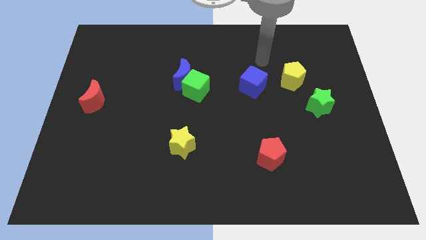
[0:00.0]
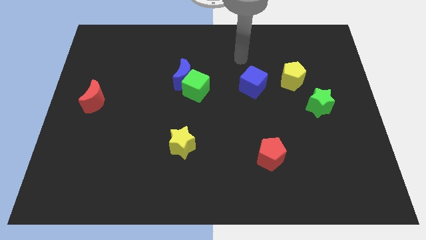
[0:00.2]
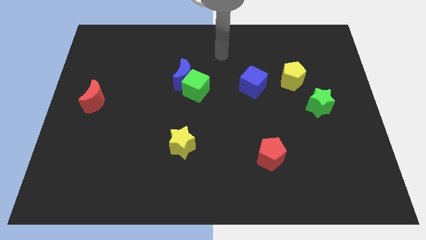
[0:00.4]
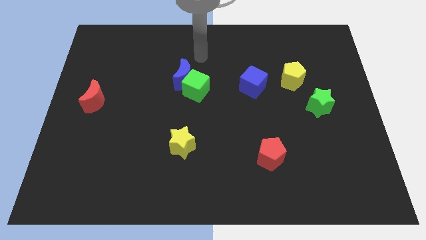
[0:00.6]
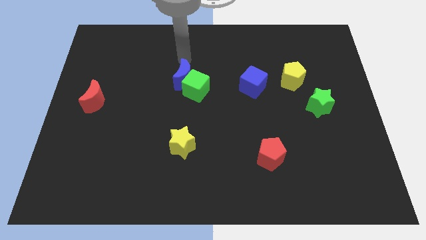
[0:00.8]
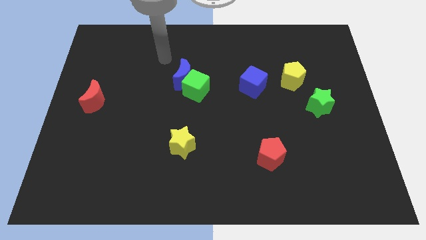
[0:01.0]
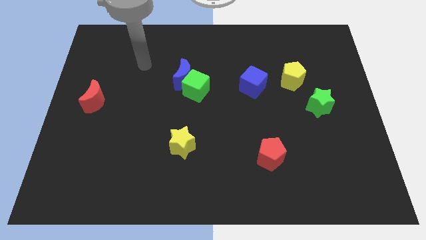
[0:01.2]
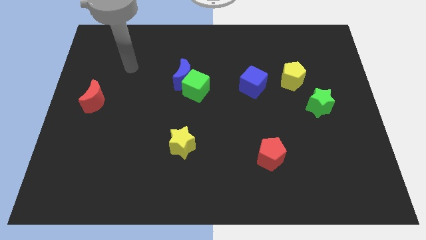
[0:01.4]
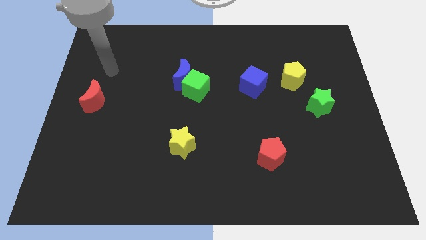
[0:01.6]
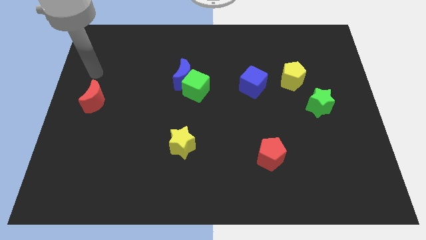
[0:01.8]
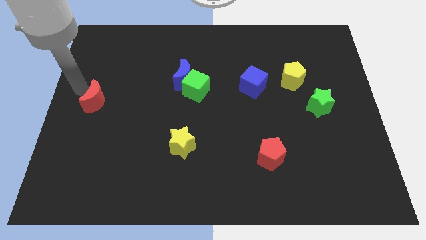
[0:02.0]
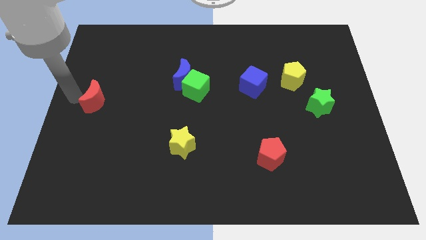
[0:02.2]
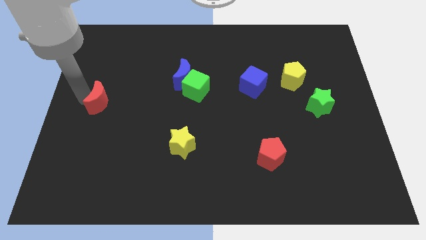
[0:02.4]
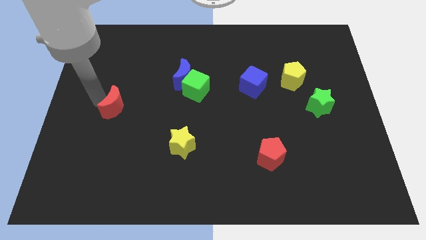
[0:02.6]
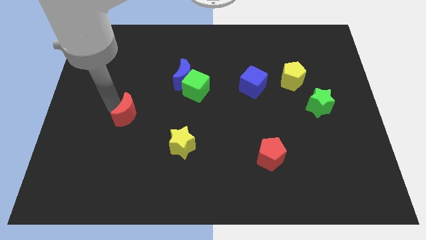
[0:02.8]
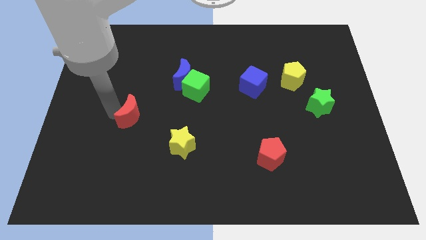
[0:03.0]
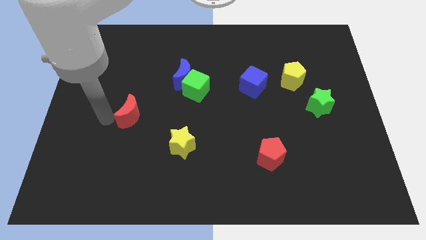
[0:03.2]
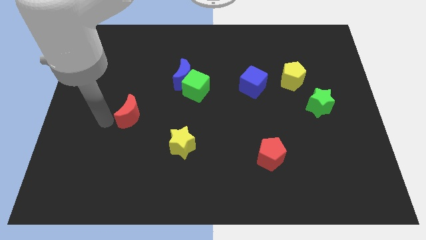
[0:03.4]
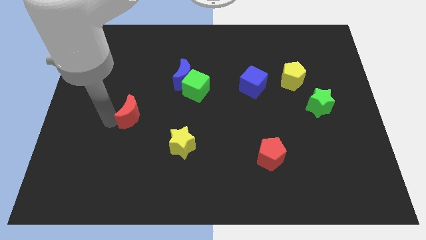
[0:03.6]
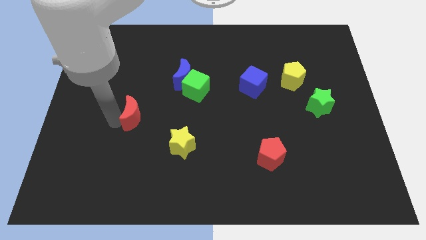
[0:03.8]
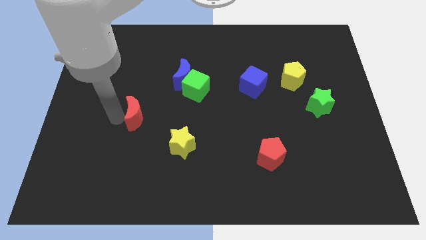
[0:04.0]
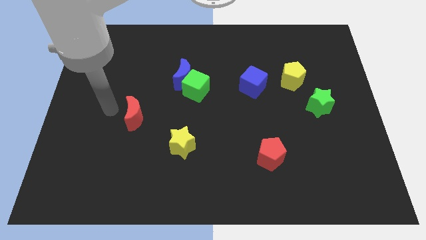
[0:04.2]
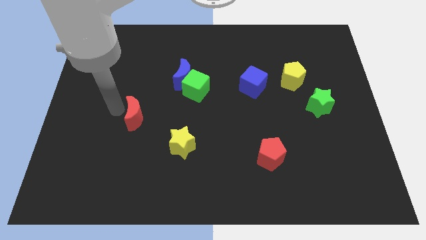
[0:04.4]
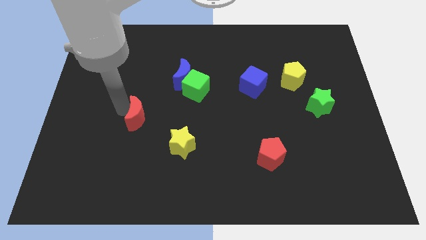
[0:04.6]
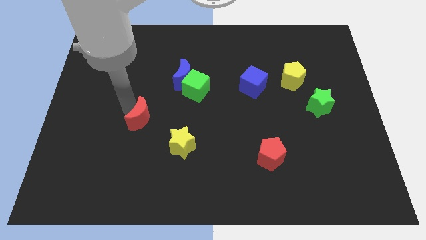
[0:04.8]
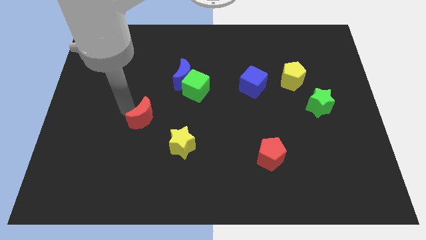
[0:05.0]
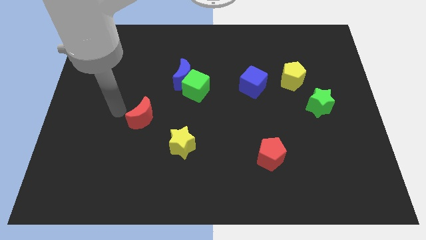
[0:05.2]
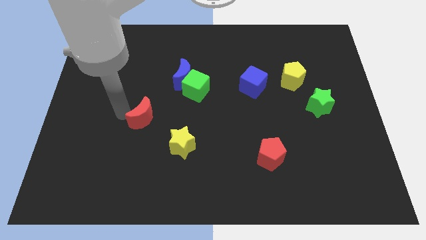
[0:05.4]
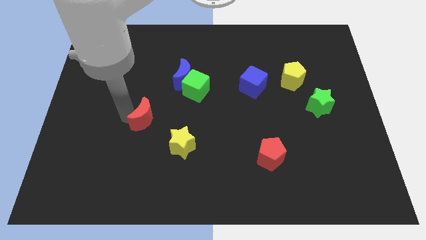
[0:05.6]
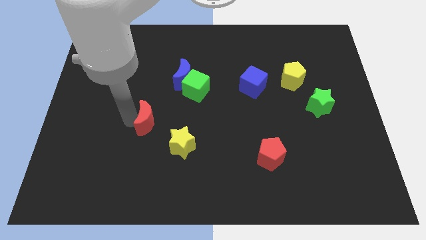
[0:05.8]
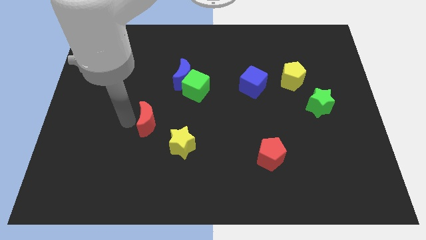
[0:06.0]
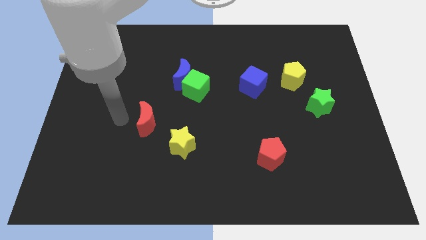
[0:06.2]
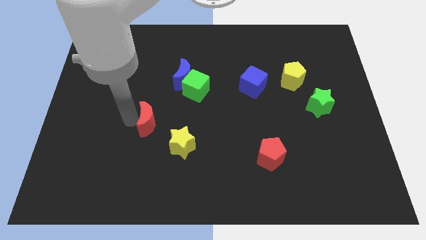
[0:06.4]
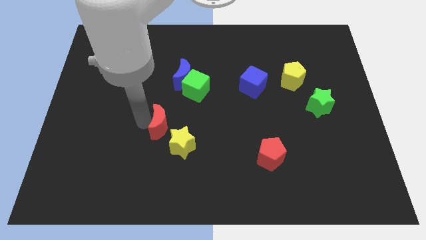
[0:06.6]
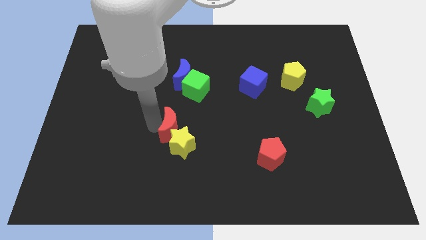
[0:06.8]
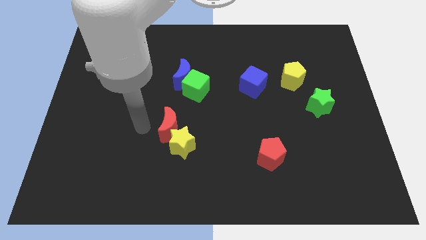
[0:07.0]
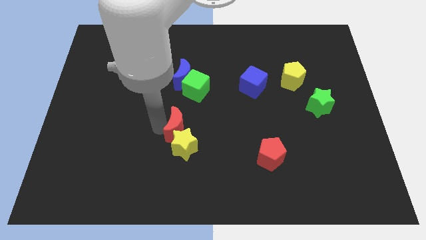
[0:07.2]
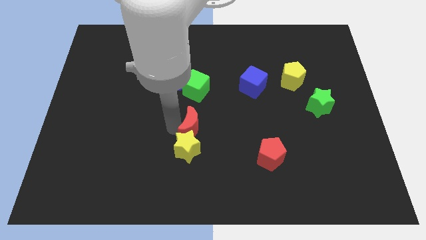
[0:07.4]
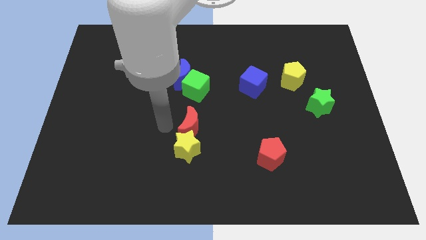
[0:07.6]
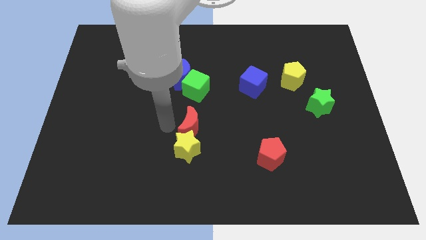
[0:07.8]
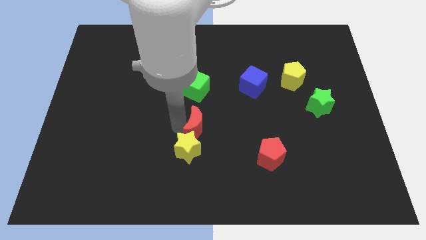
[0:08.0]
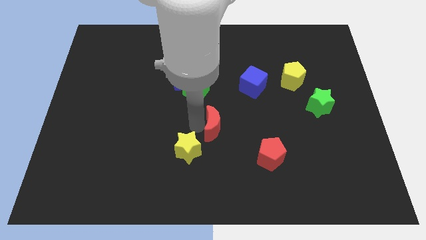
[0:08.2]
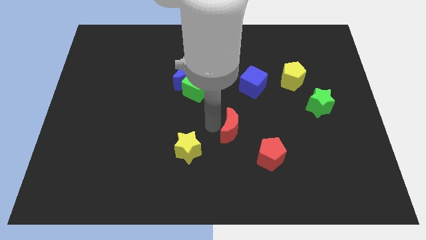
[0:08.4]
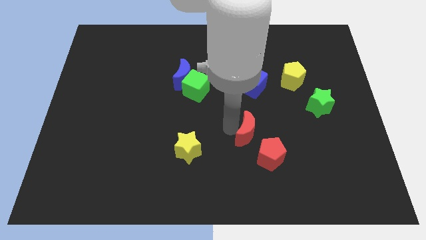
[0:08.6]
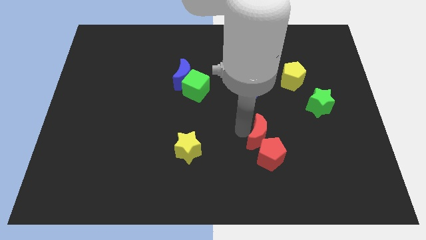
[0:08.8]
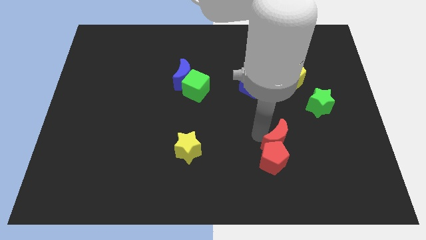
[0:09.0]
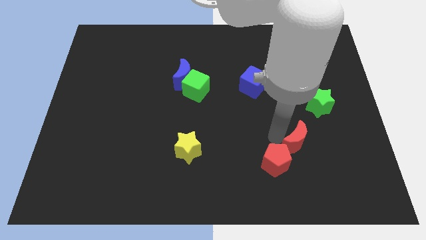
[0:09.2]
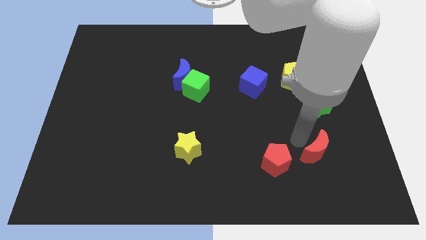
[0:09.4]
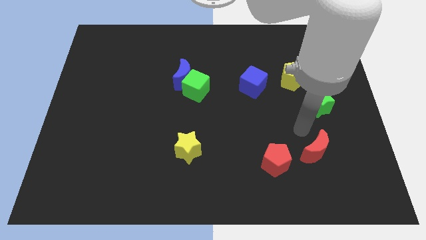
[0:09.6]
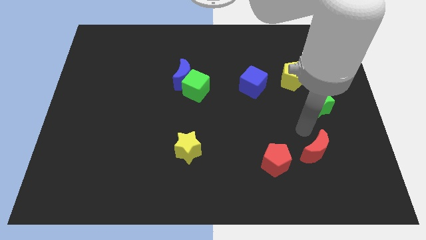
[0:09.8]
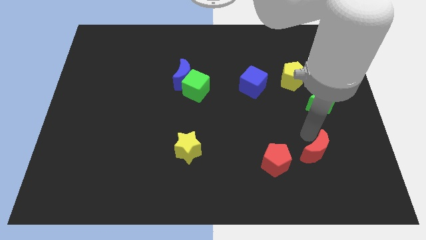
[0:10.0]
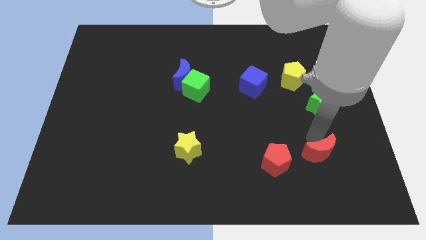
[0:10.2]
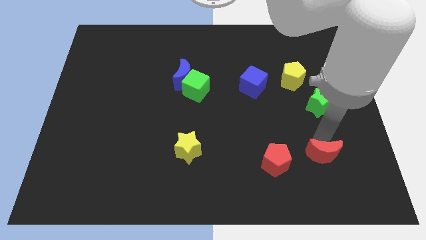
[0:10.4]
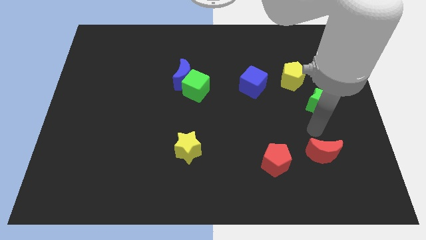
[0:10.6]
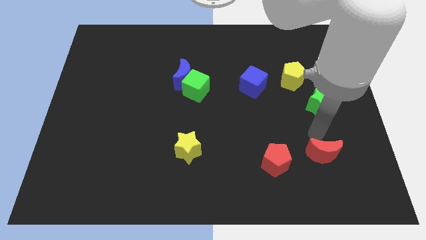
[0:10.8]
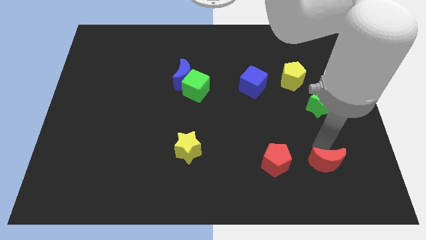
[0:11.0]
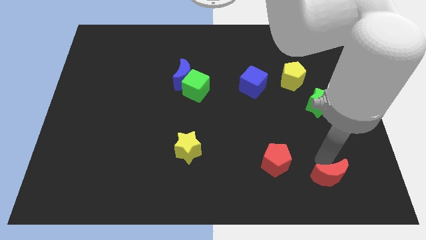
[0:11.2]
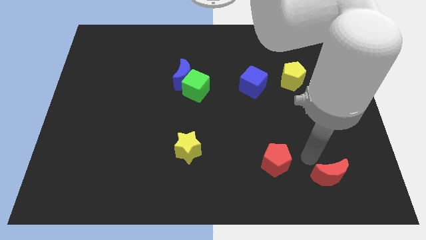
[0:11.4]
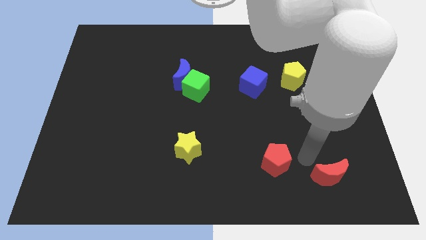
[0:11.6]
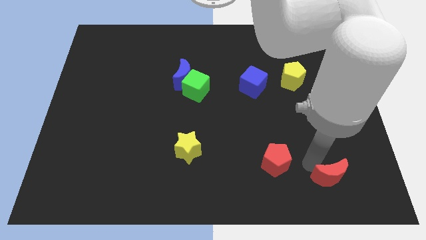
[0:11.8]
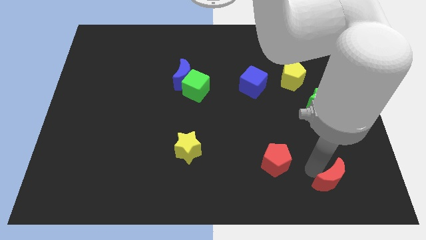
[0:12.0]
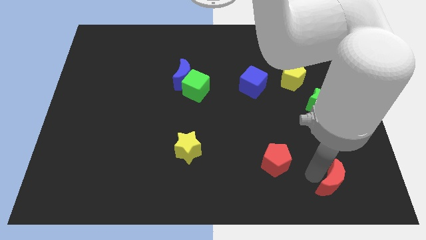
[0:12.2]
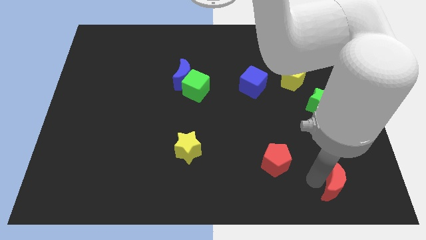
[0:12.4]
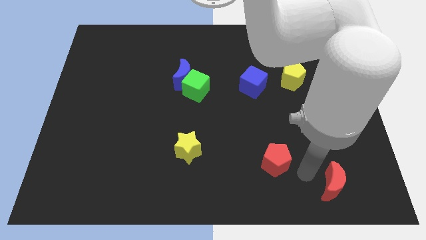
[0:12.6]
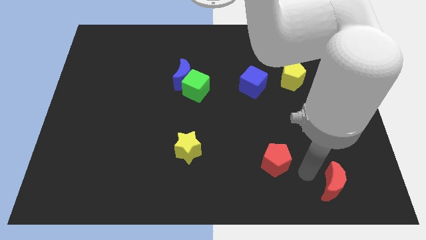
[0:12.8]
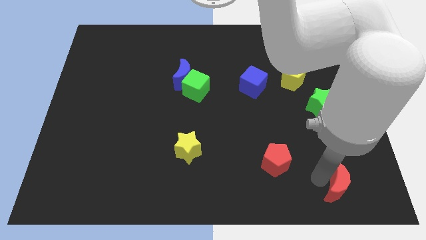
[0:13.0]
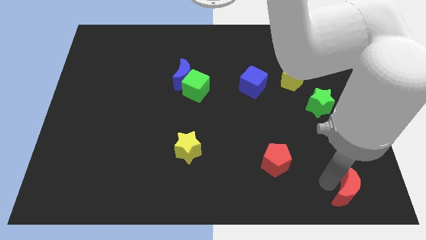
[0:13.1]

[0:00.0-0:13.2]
push the red moon to the bottom right of the board
